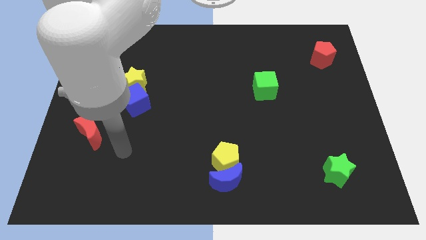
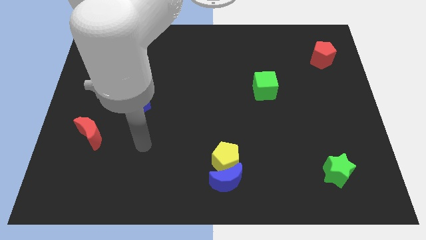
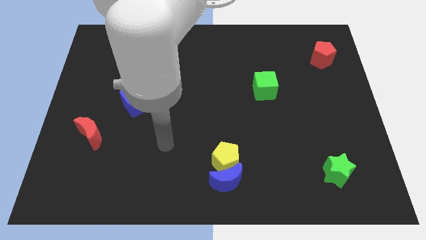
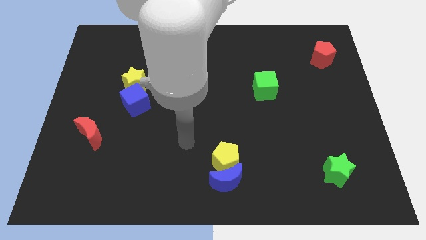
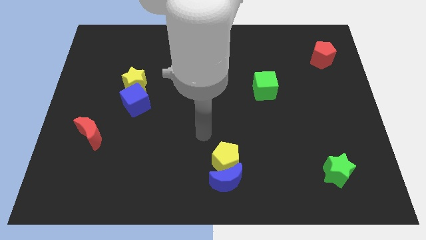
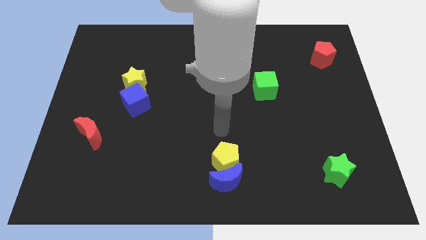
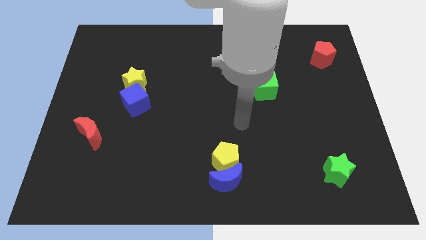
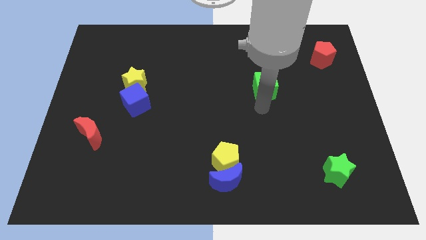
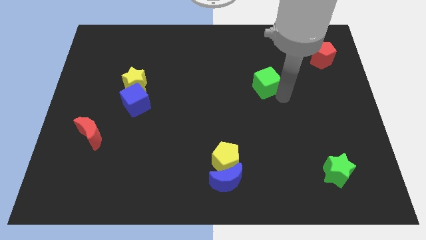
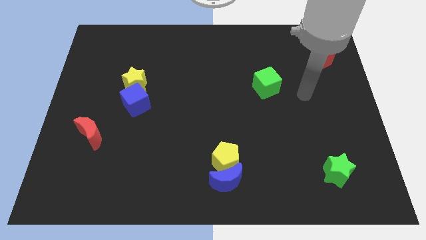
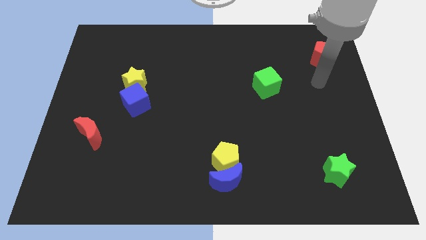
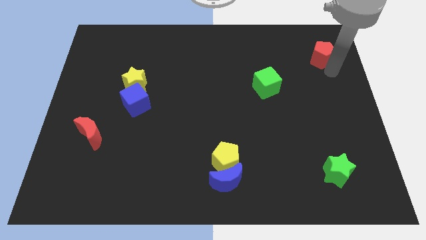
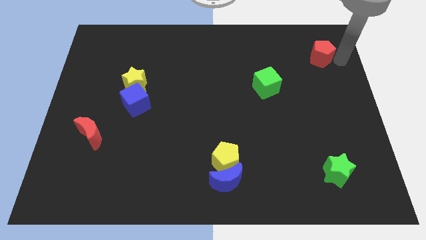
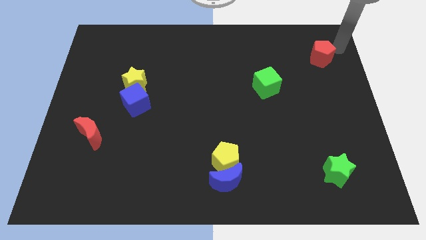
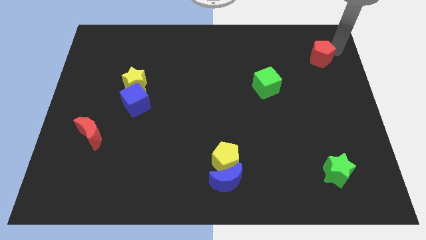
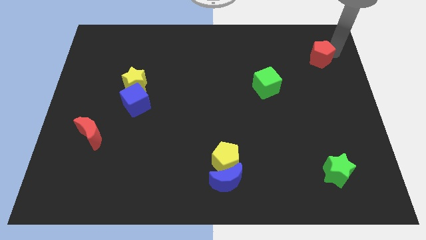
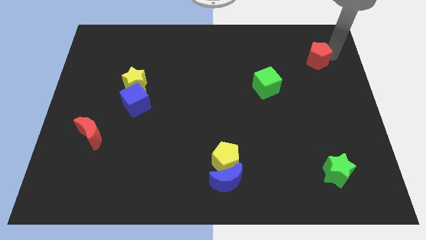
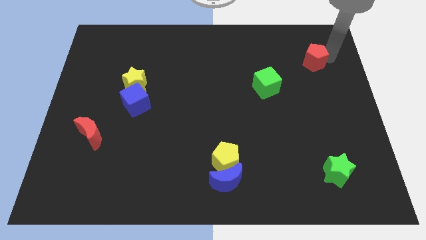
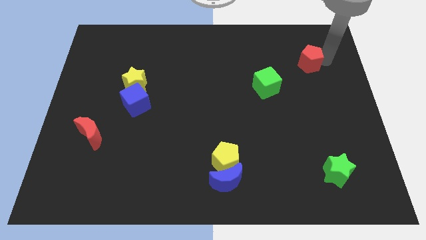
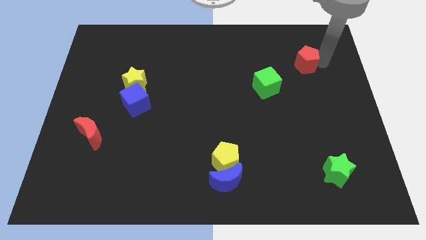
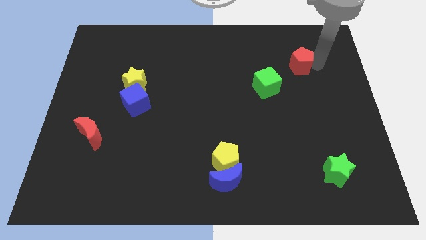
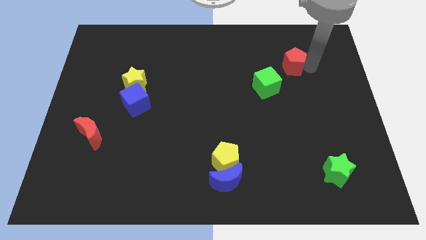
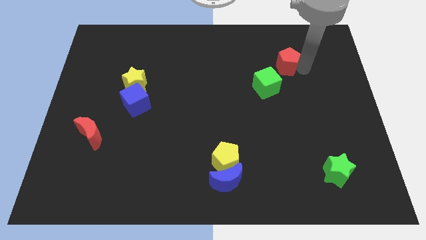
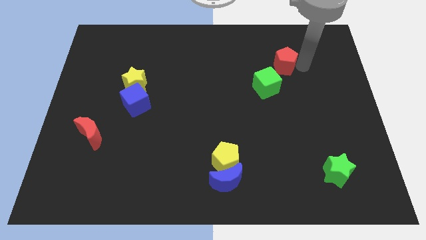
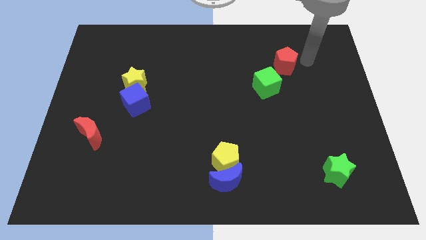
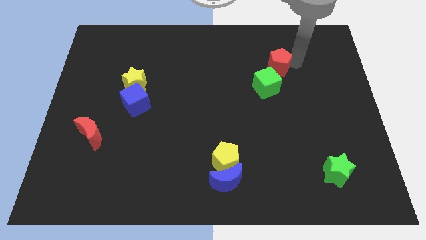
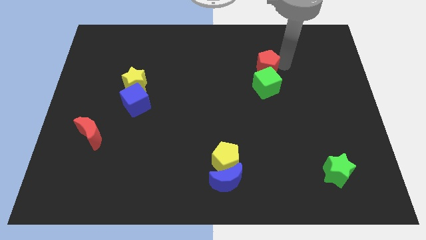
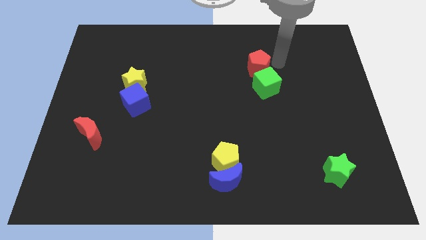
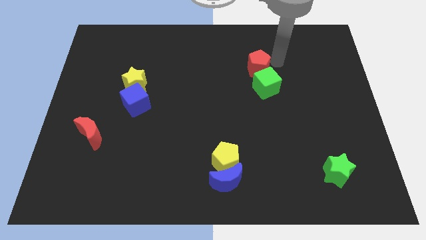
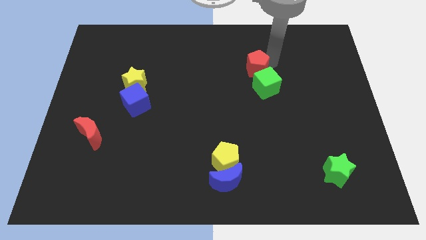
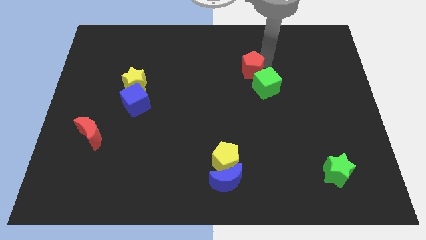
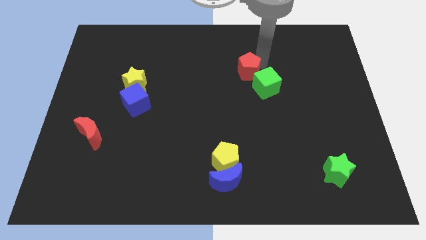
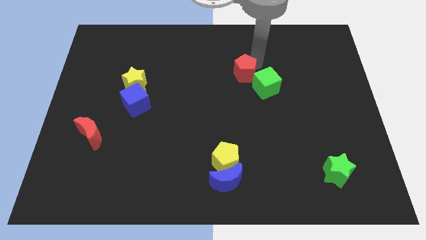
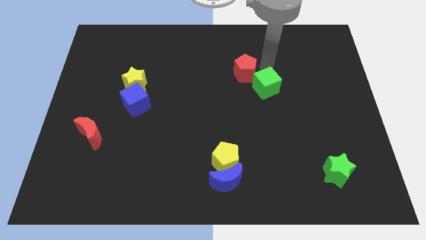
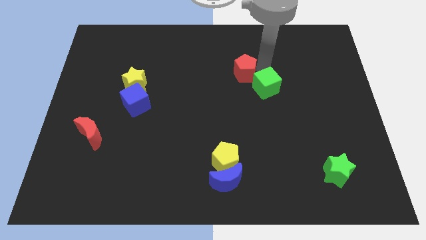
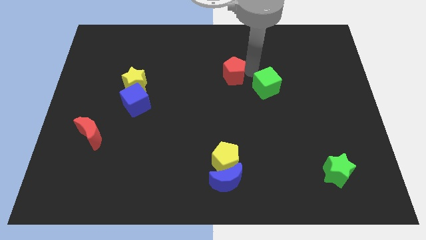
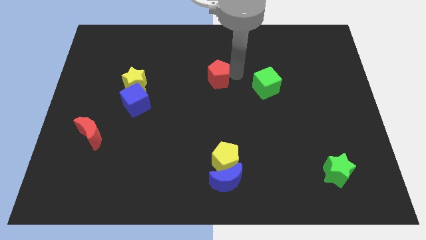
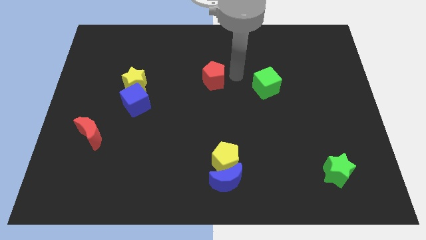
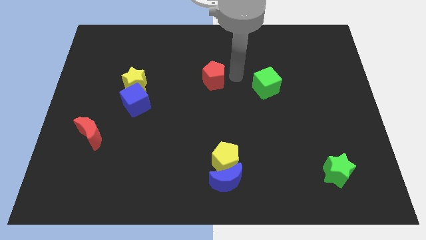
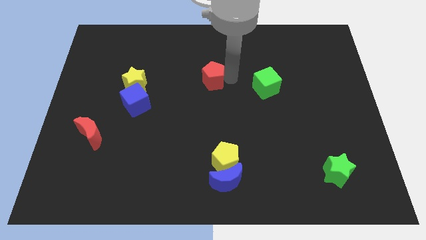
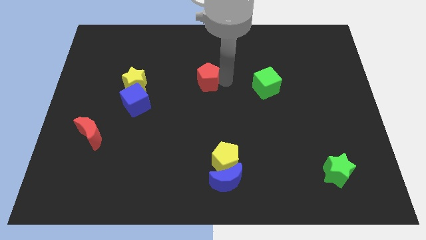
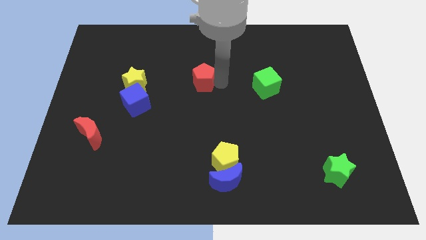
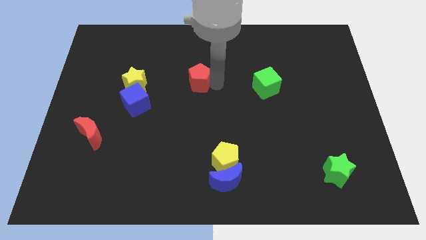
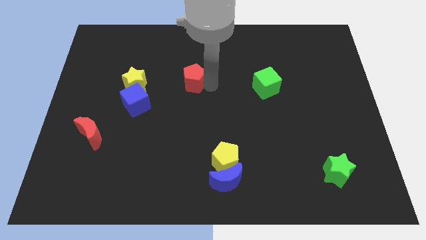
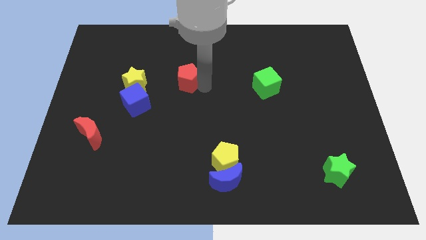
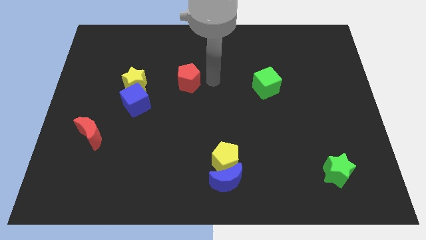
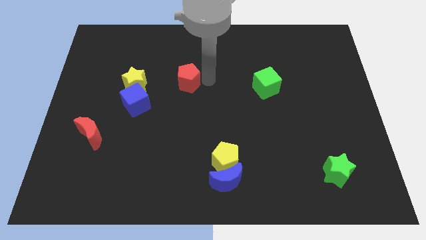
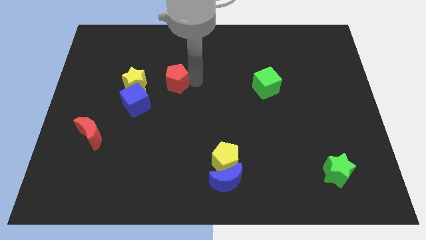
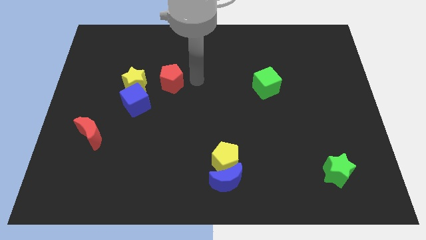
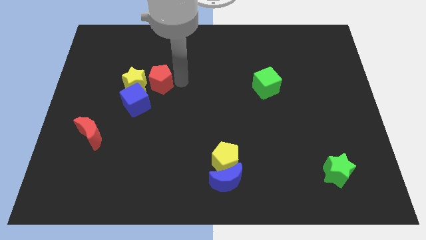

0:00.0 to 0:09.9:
put the red pentagon towards the yellow star
